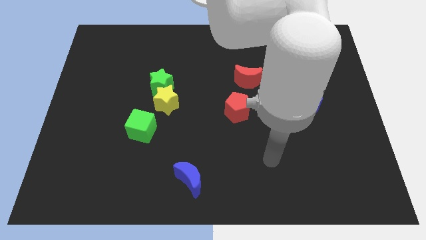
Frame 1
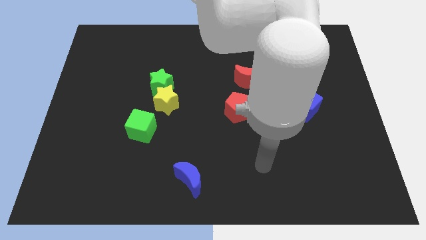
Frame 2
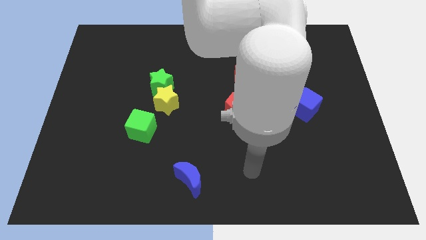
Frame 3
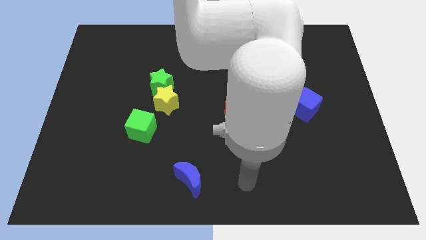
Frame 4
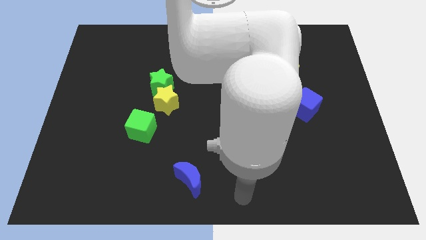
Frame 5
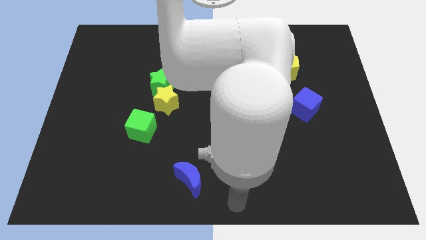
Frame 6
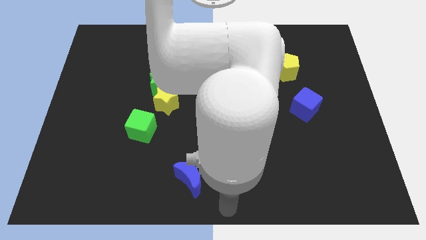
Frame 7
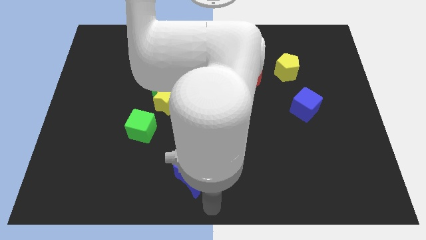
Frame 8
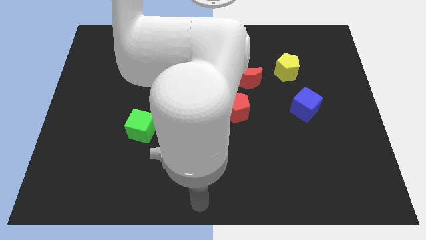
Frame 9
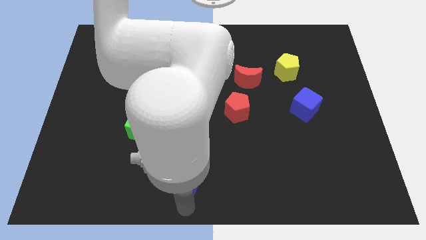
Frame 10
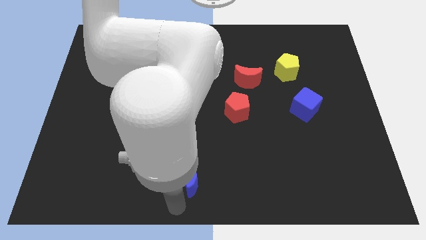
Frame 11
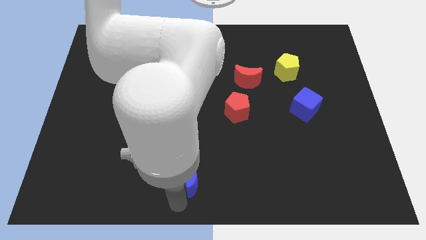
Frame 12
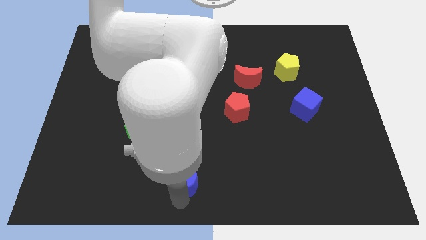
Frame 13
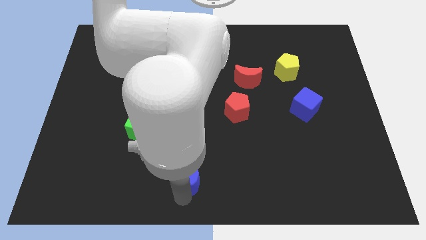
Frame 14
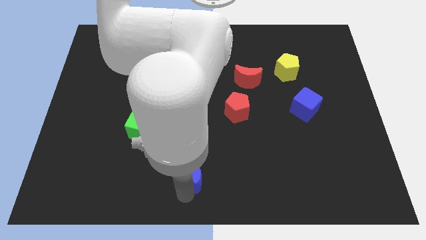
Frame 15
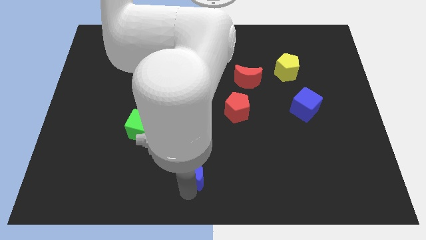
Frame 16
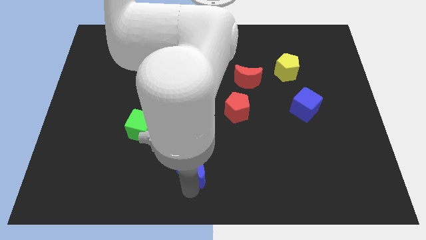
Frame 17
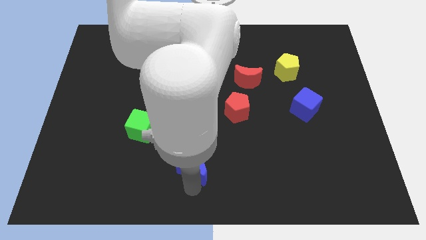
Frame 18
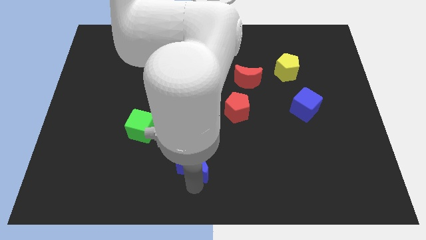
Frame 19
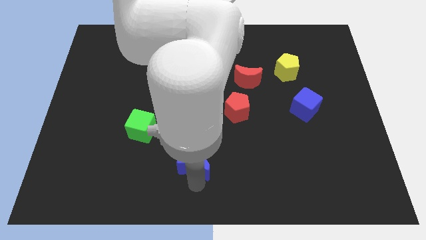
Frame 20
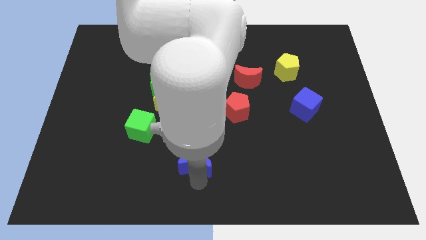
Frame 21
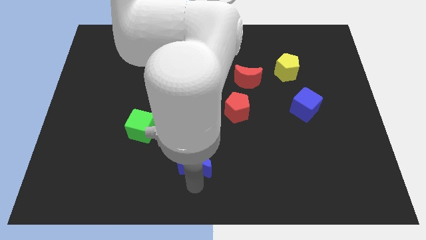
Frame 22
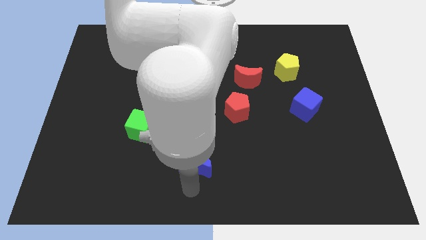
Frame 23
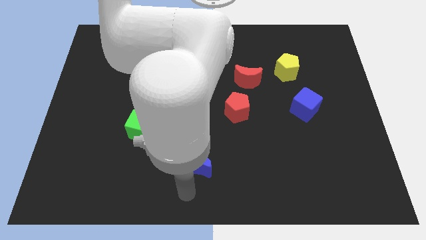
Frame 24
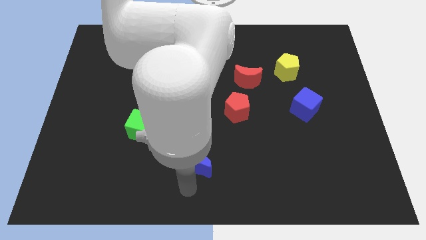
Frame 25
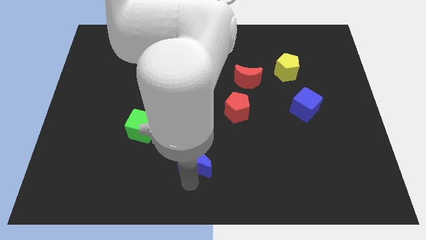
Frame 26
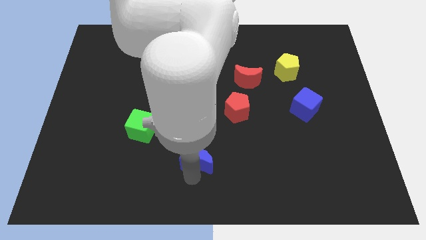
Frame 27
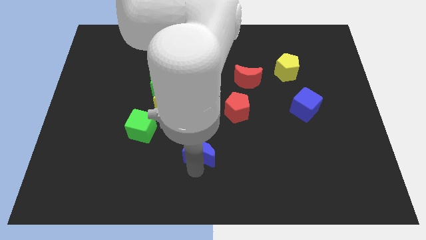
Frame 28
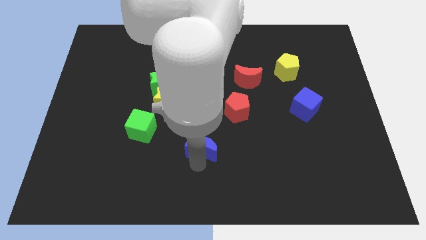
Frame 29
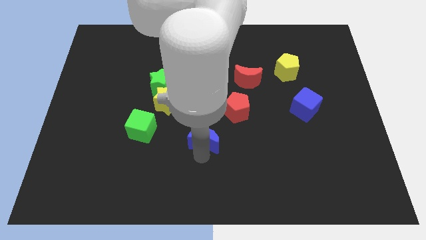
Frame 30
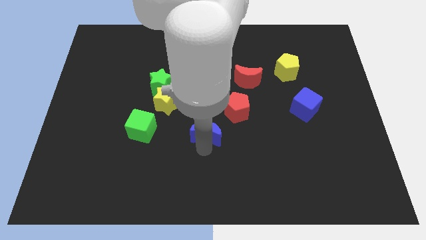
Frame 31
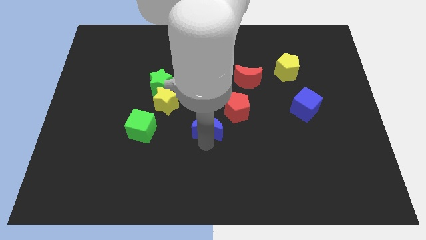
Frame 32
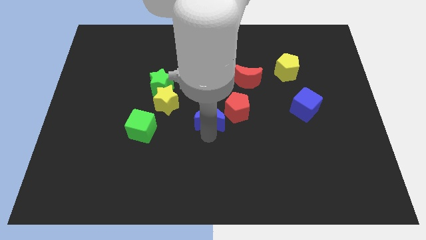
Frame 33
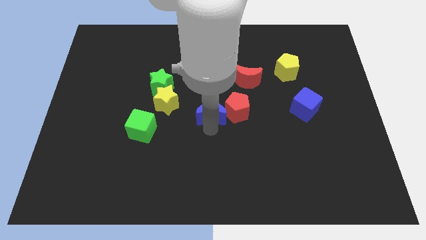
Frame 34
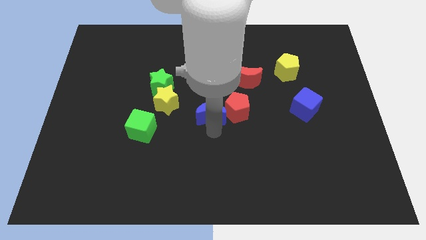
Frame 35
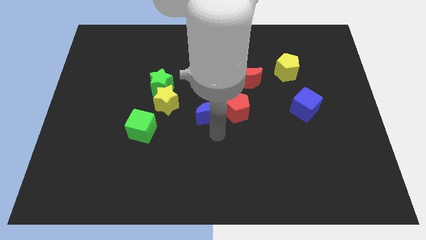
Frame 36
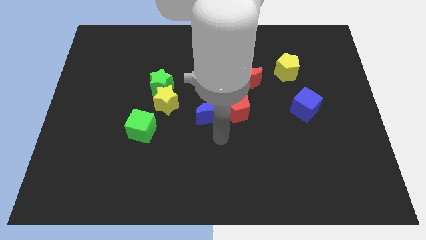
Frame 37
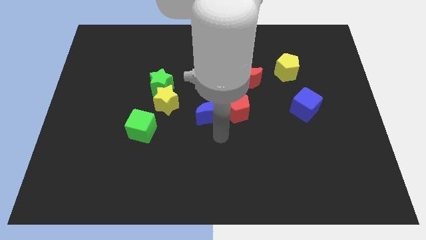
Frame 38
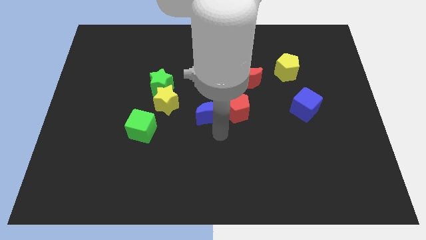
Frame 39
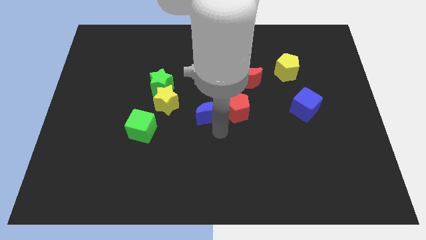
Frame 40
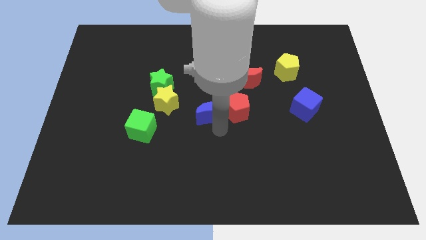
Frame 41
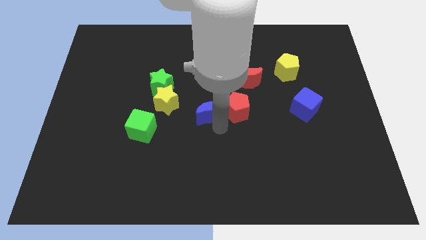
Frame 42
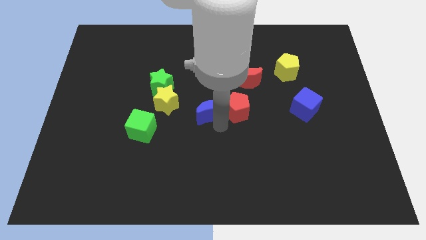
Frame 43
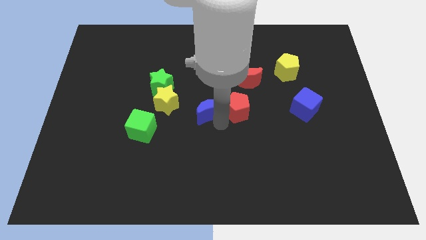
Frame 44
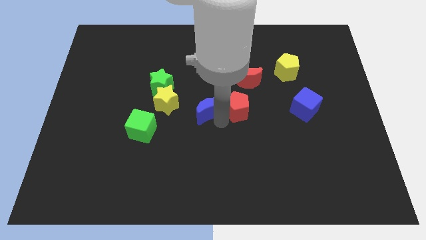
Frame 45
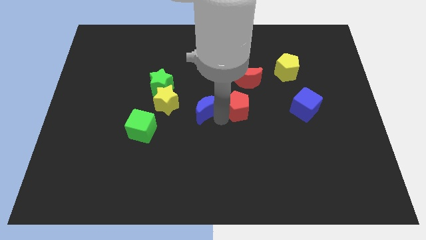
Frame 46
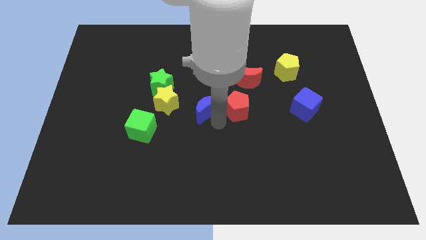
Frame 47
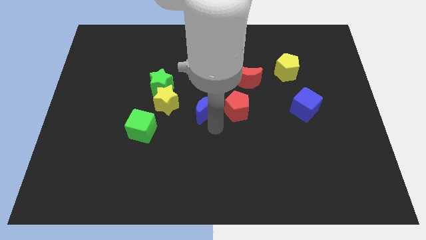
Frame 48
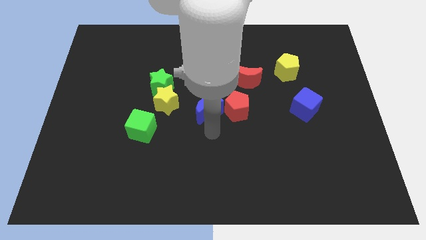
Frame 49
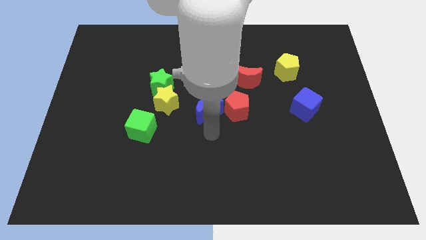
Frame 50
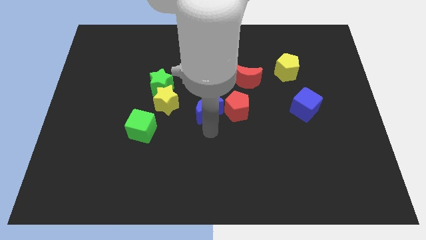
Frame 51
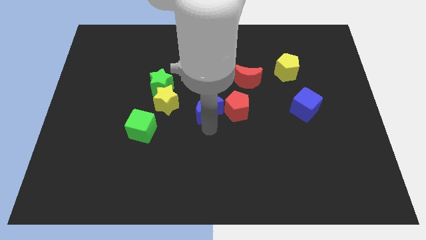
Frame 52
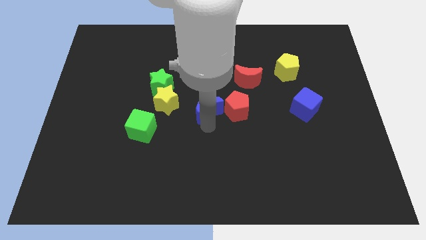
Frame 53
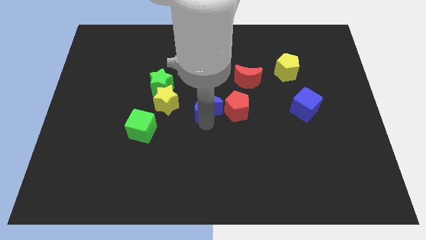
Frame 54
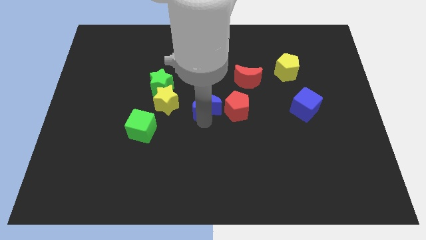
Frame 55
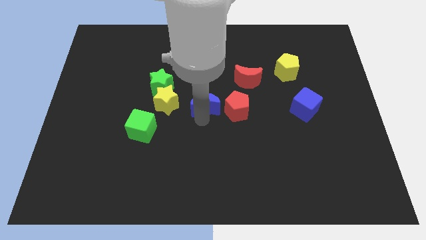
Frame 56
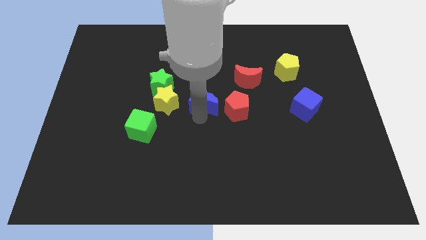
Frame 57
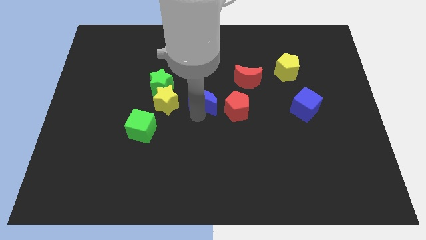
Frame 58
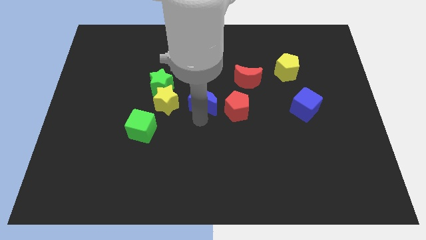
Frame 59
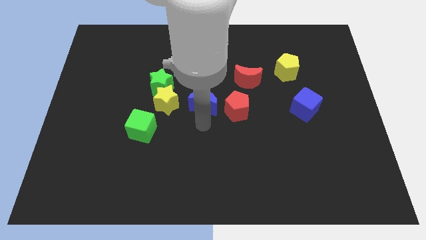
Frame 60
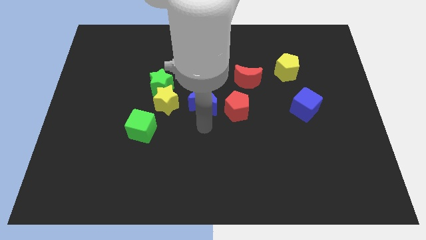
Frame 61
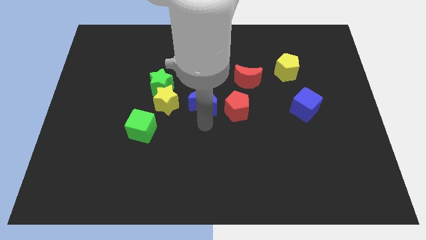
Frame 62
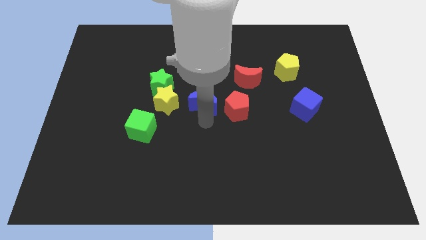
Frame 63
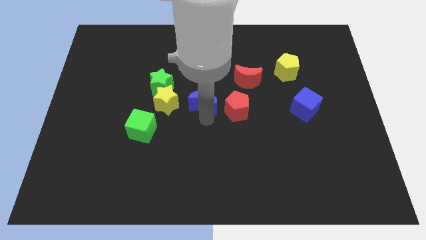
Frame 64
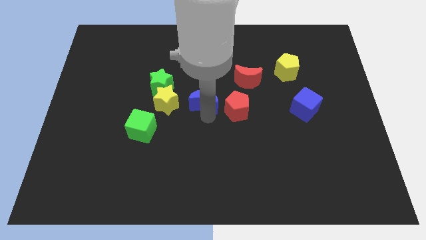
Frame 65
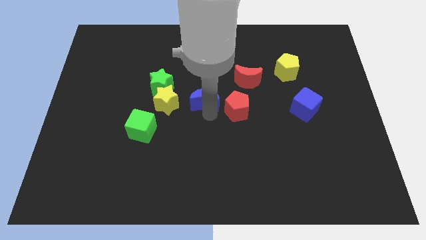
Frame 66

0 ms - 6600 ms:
move the blue moon to the right of the green star

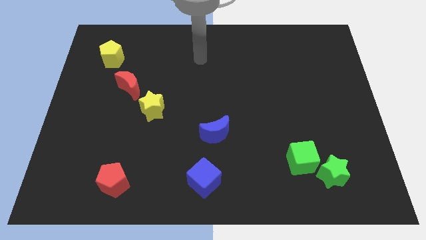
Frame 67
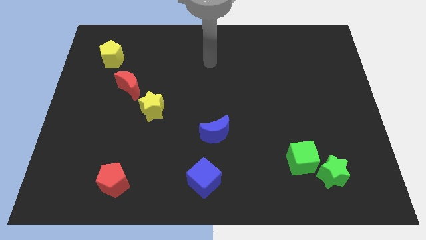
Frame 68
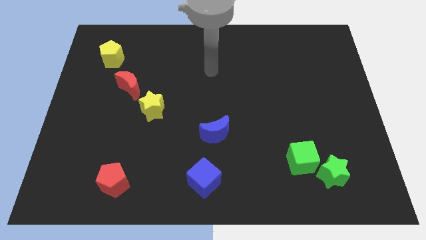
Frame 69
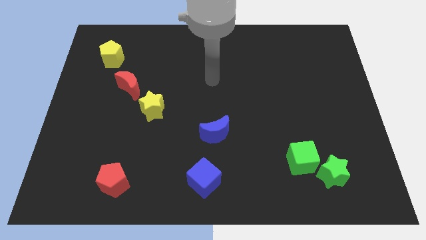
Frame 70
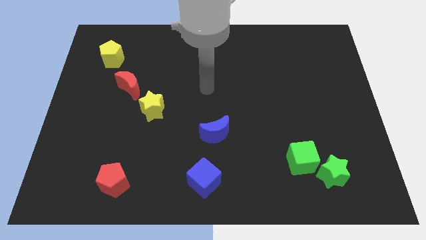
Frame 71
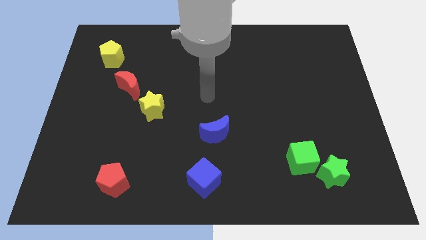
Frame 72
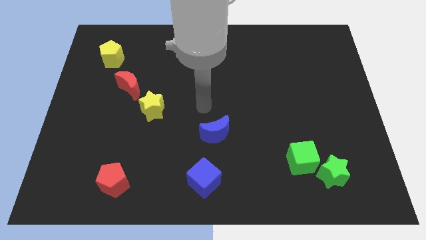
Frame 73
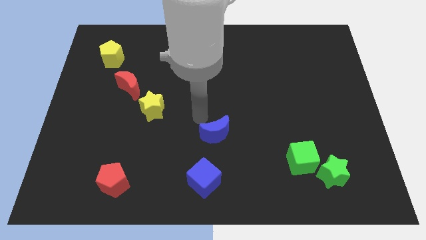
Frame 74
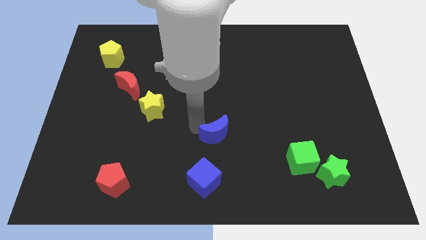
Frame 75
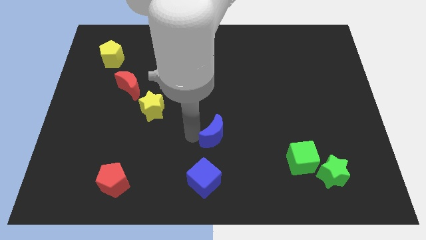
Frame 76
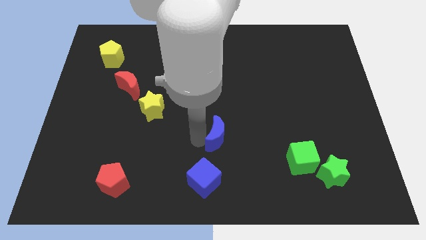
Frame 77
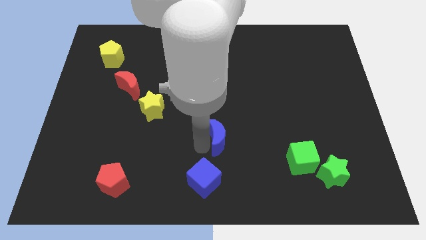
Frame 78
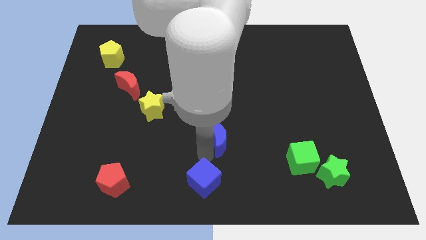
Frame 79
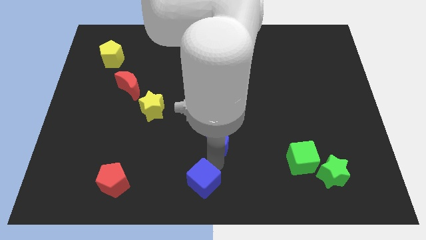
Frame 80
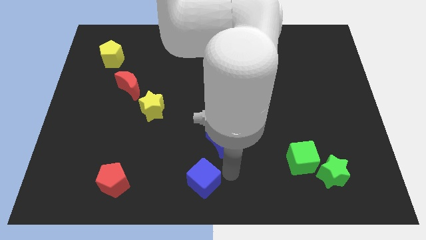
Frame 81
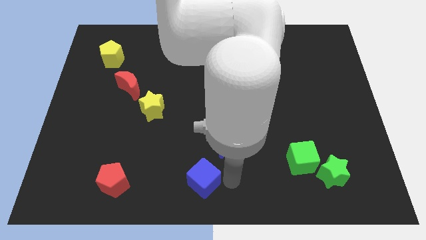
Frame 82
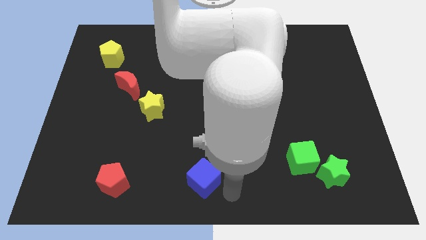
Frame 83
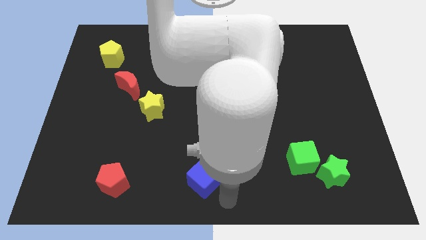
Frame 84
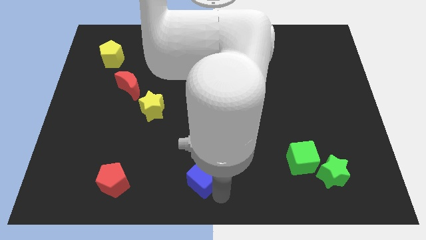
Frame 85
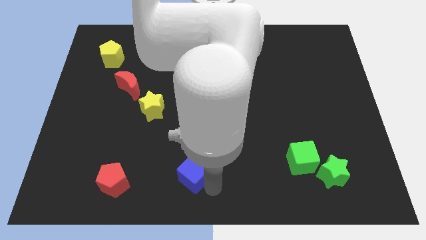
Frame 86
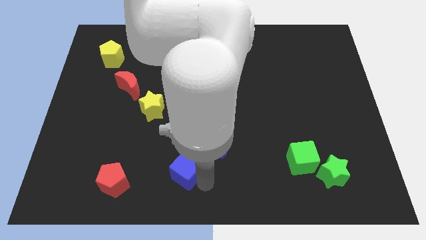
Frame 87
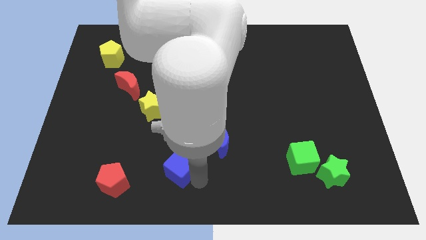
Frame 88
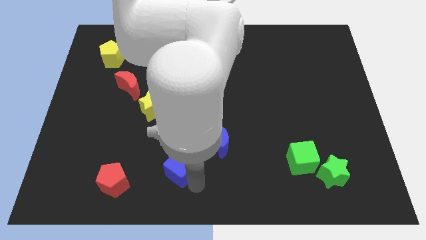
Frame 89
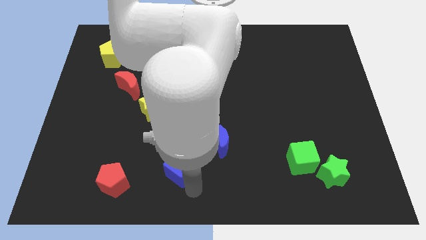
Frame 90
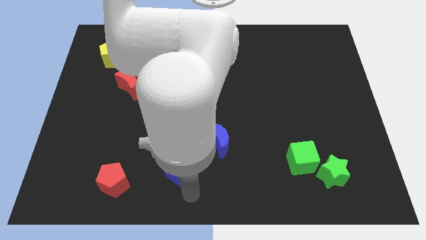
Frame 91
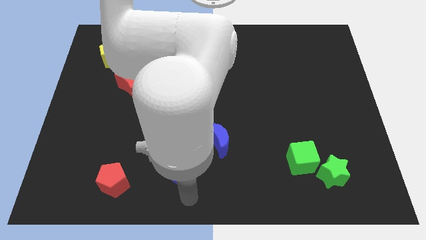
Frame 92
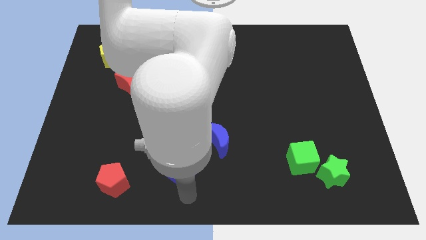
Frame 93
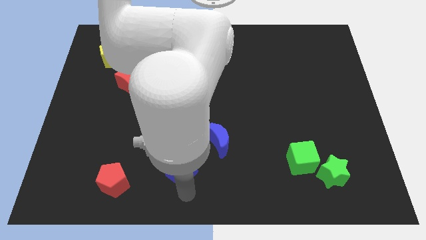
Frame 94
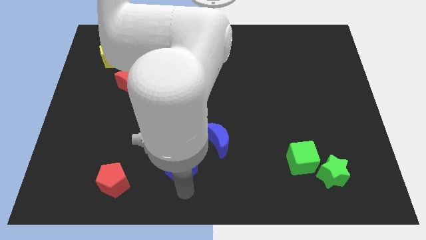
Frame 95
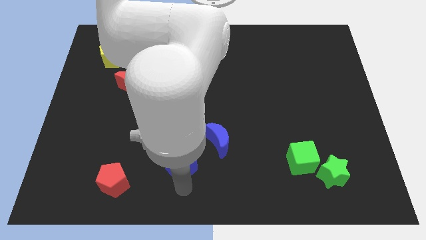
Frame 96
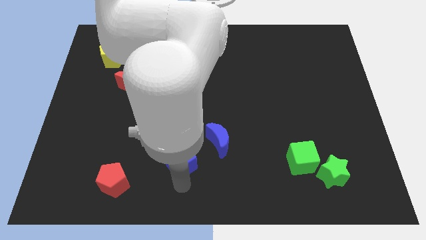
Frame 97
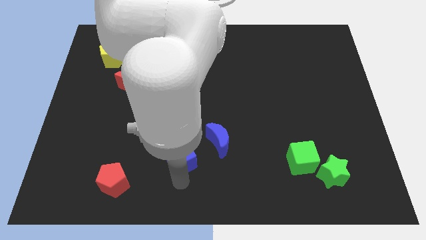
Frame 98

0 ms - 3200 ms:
move the blue cube left of the blue moon
